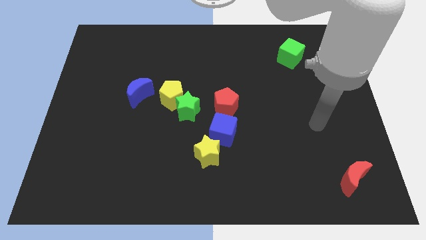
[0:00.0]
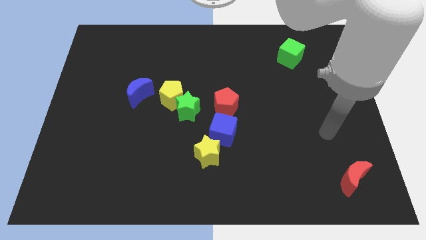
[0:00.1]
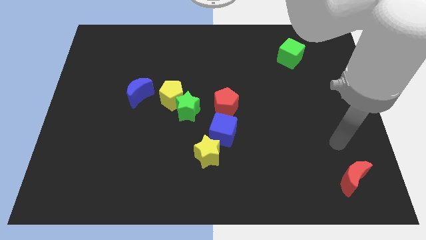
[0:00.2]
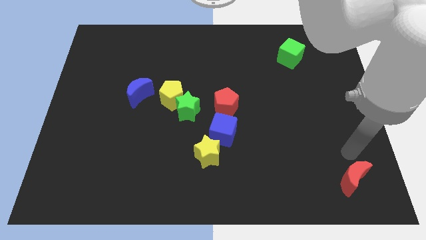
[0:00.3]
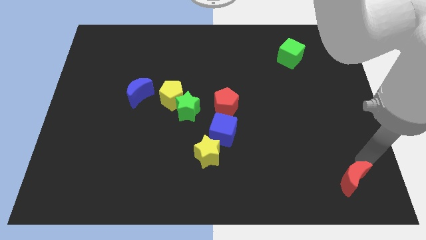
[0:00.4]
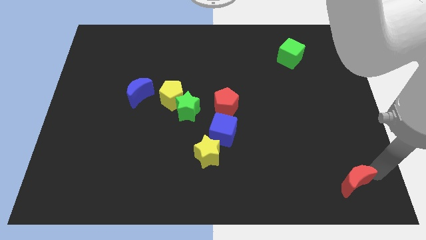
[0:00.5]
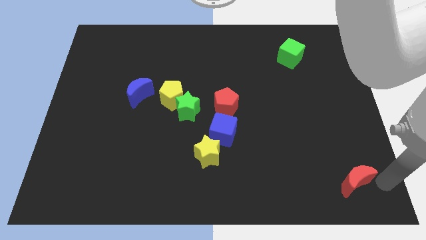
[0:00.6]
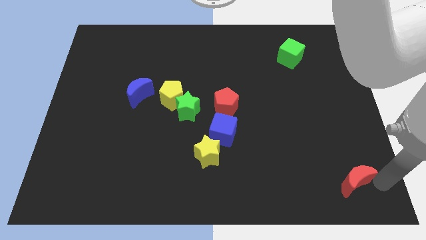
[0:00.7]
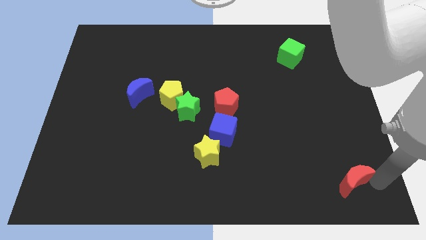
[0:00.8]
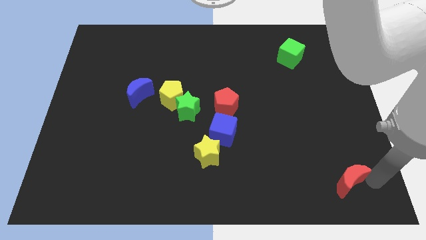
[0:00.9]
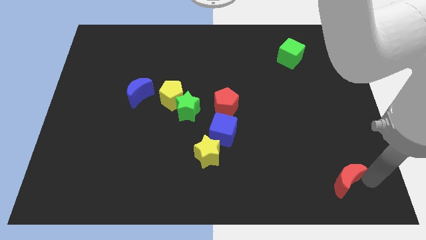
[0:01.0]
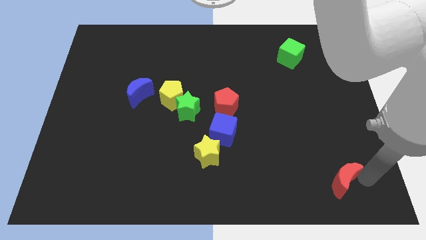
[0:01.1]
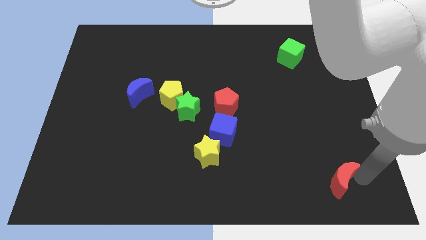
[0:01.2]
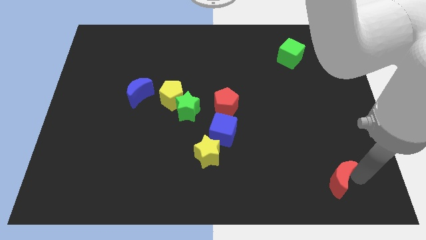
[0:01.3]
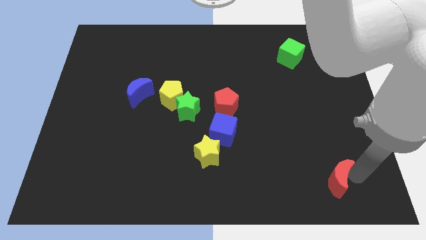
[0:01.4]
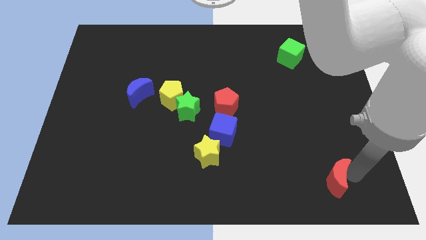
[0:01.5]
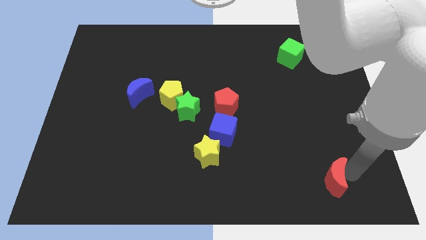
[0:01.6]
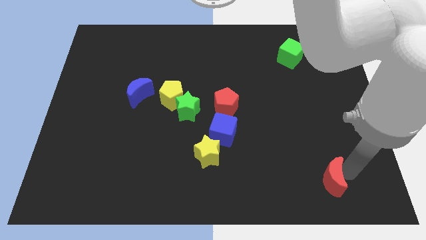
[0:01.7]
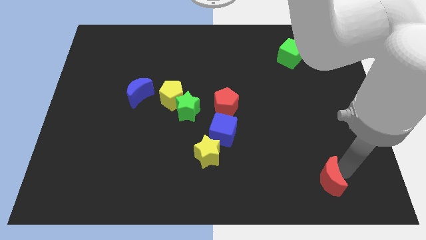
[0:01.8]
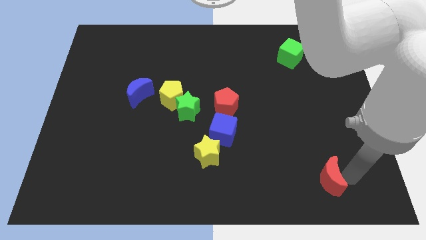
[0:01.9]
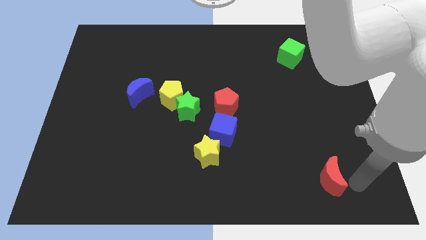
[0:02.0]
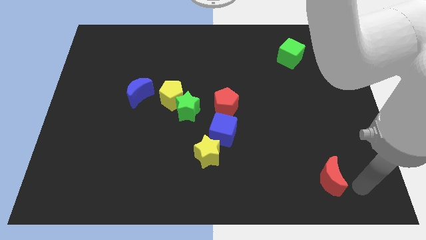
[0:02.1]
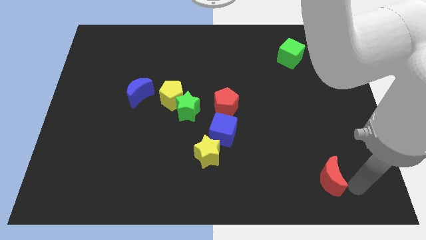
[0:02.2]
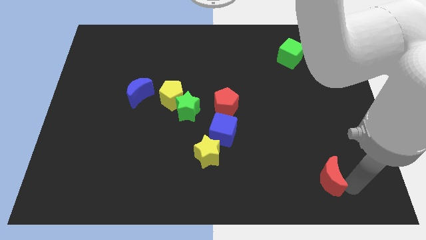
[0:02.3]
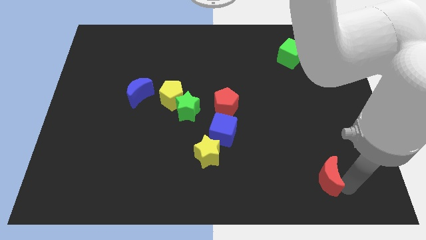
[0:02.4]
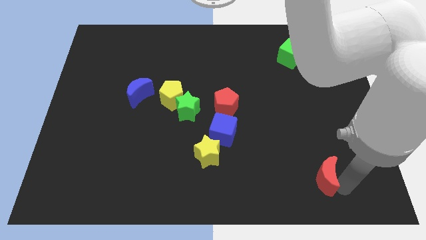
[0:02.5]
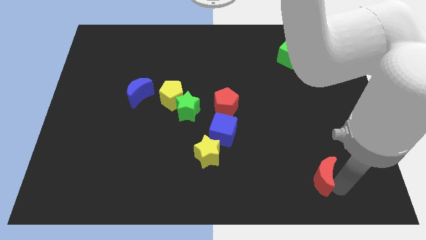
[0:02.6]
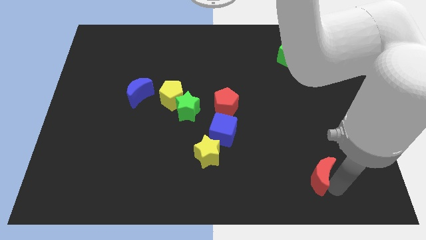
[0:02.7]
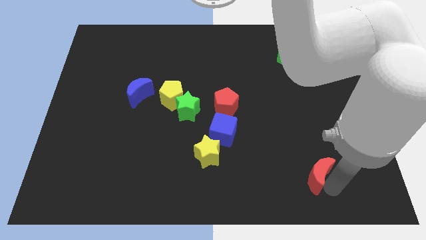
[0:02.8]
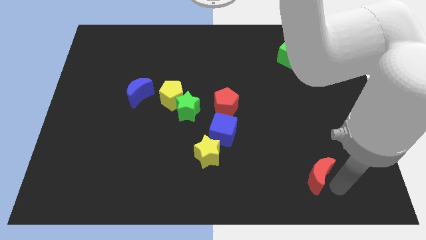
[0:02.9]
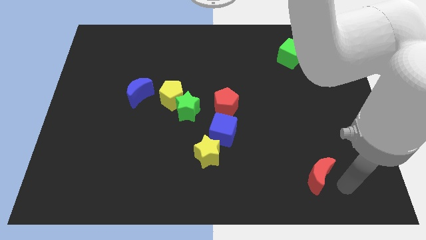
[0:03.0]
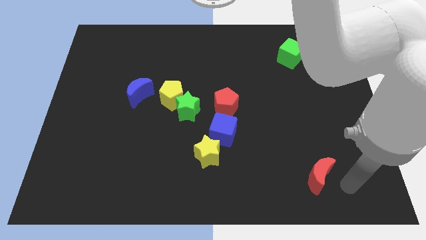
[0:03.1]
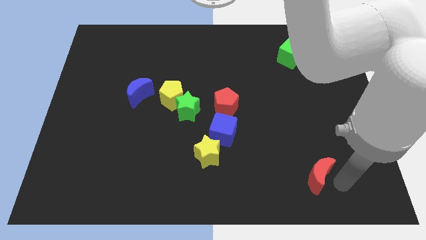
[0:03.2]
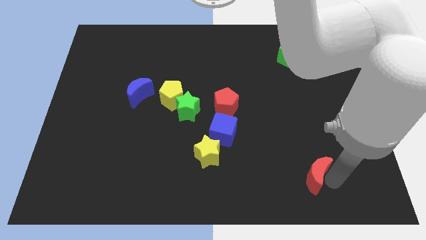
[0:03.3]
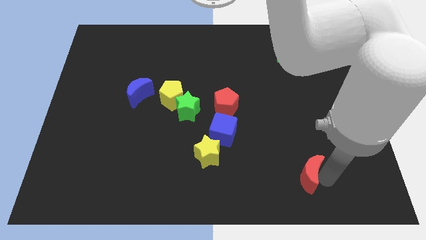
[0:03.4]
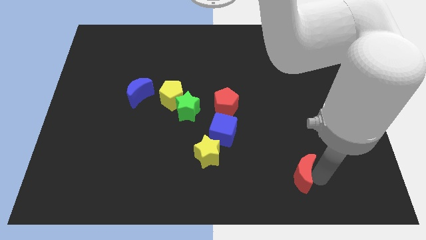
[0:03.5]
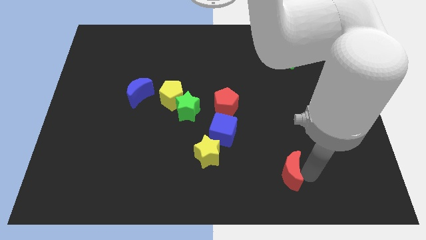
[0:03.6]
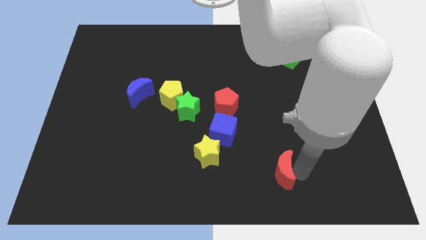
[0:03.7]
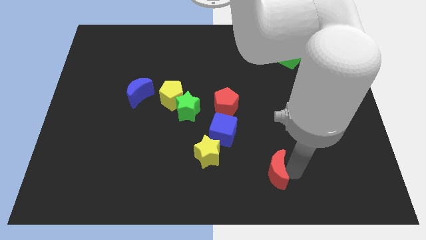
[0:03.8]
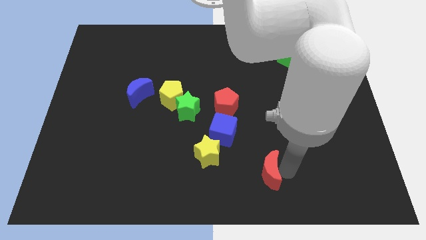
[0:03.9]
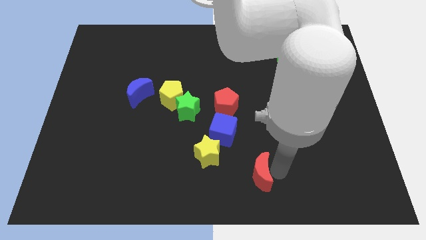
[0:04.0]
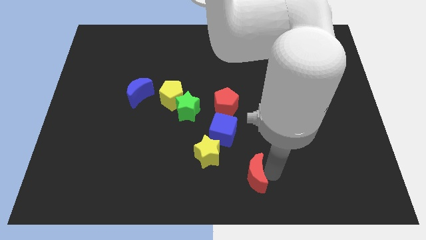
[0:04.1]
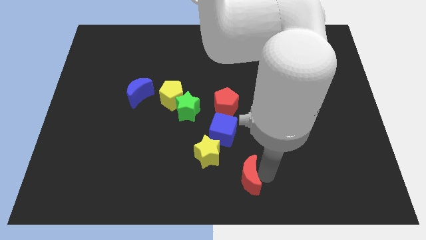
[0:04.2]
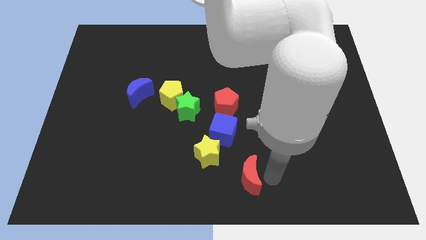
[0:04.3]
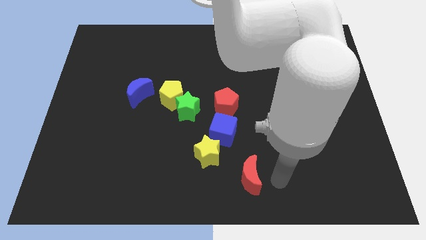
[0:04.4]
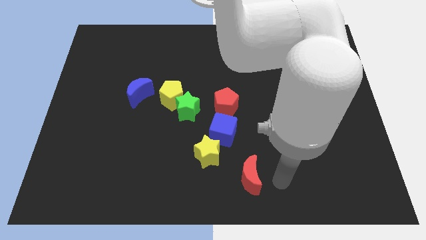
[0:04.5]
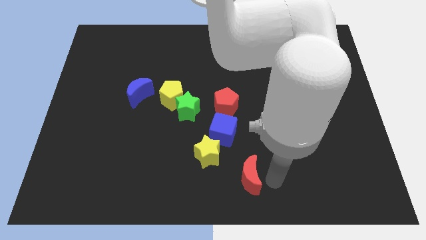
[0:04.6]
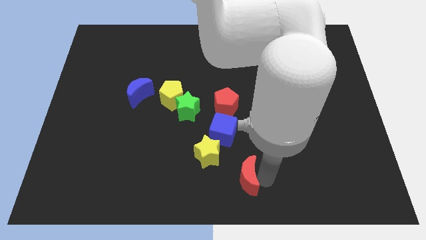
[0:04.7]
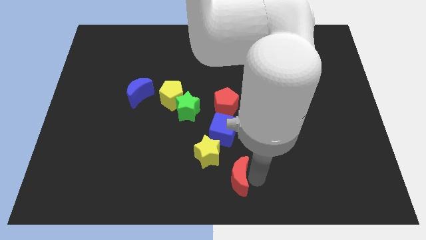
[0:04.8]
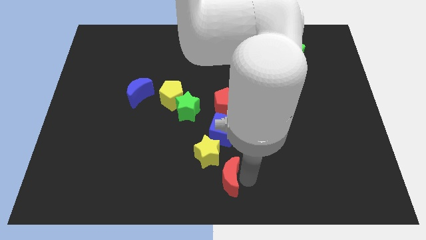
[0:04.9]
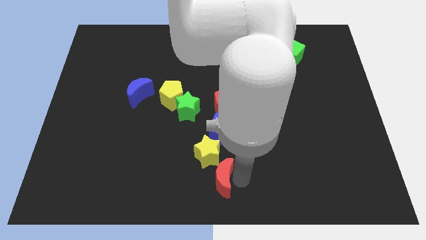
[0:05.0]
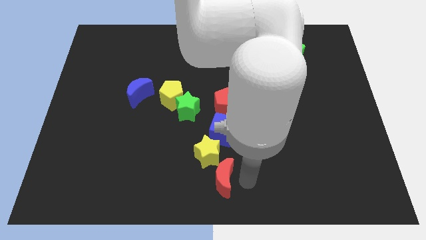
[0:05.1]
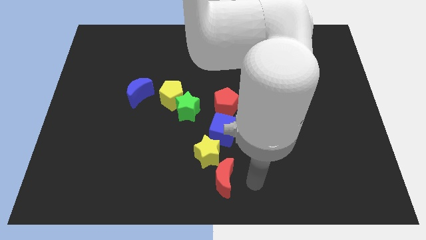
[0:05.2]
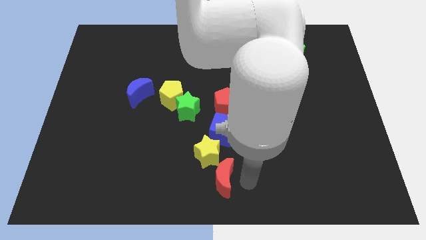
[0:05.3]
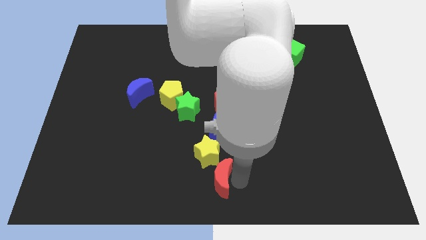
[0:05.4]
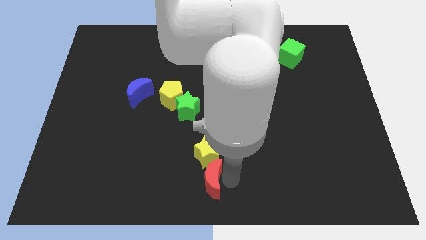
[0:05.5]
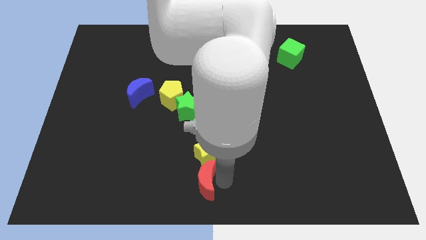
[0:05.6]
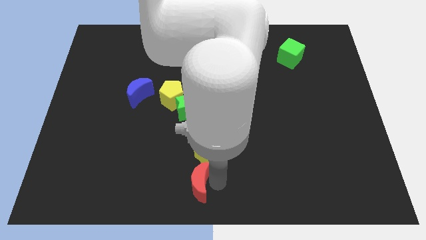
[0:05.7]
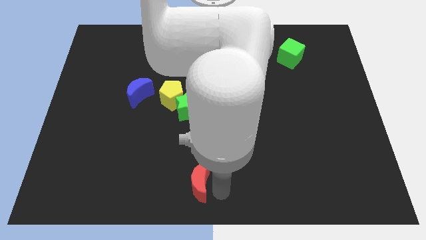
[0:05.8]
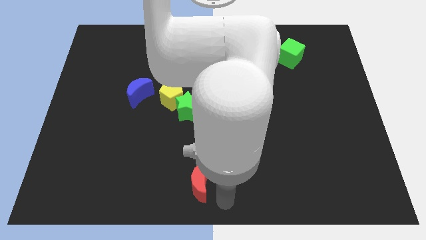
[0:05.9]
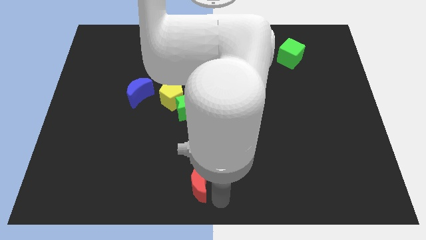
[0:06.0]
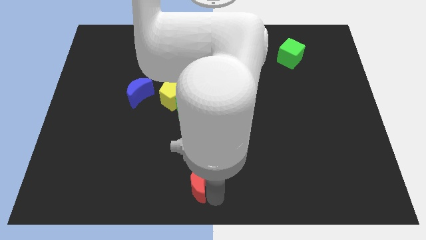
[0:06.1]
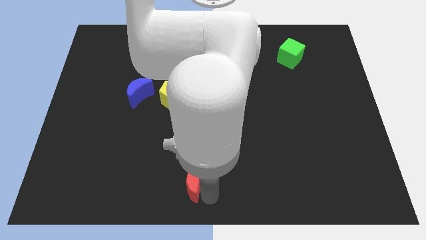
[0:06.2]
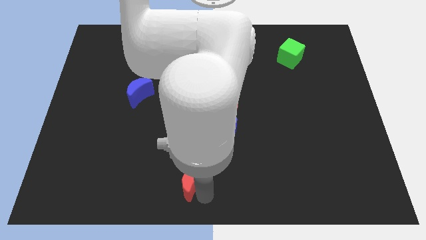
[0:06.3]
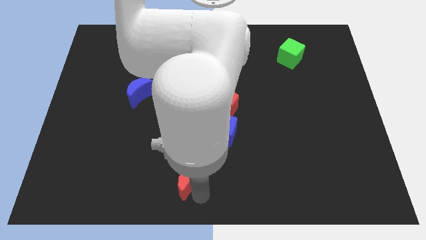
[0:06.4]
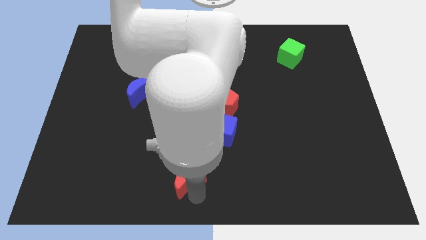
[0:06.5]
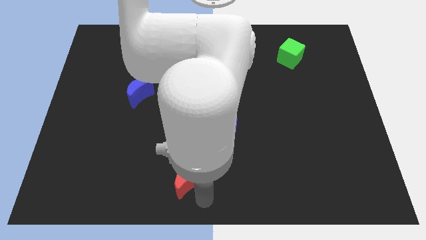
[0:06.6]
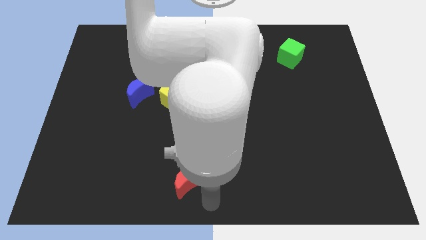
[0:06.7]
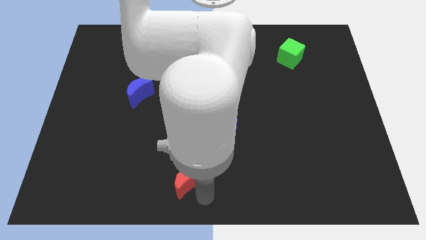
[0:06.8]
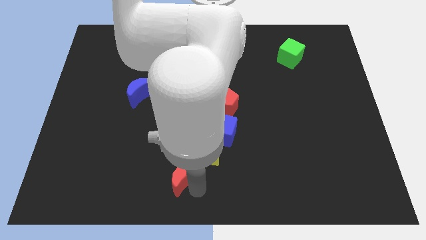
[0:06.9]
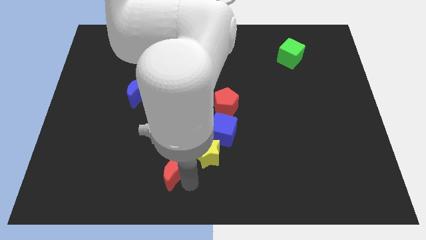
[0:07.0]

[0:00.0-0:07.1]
push the red moon just left of the yellow star
